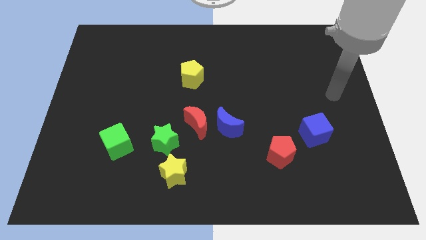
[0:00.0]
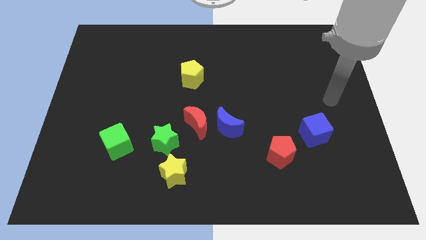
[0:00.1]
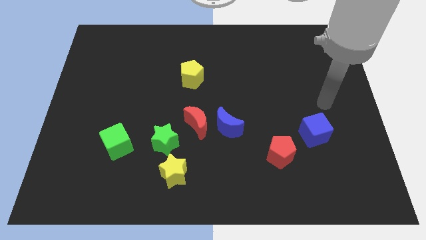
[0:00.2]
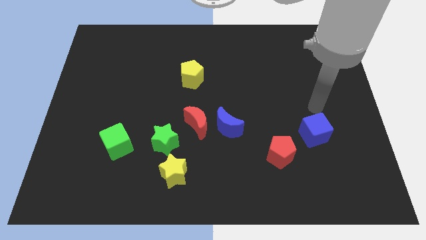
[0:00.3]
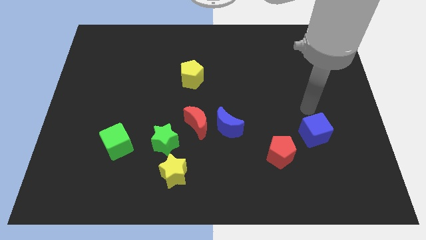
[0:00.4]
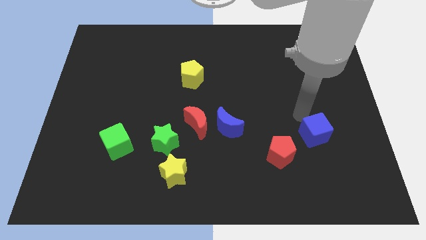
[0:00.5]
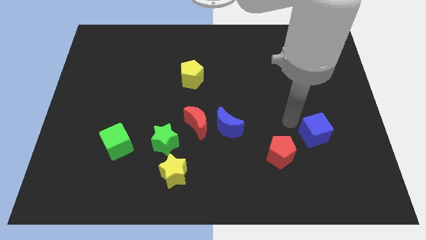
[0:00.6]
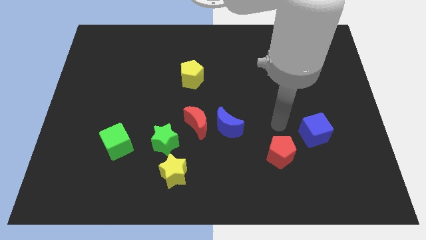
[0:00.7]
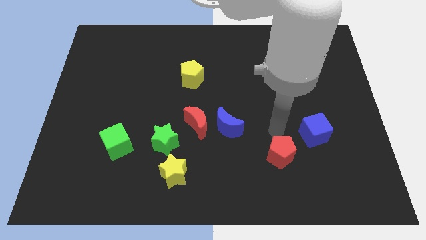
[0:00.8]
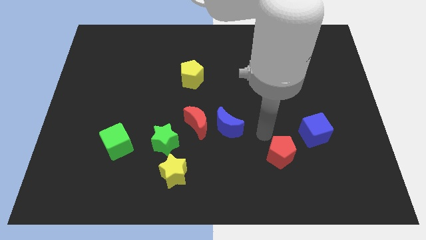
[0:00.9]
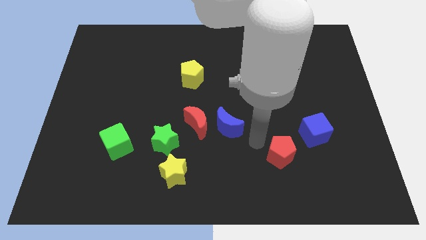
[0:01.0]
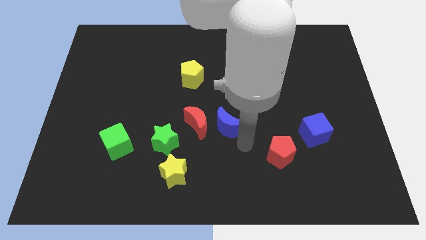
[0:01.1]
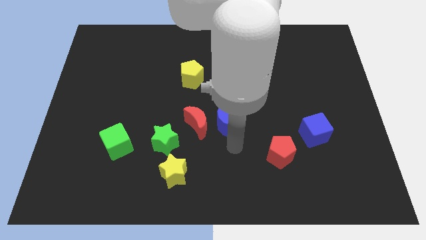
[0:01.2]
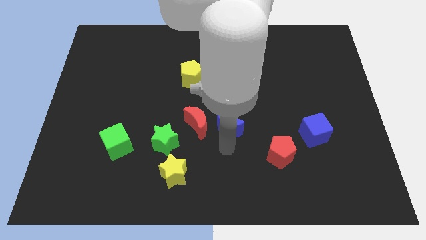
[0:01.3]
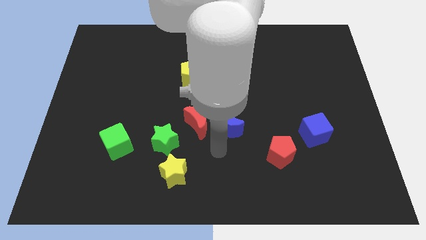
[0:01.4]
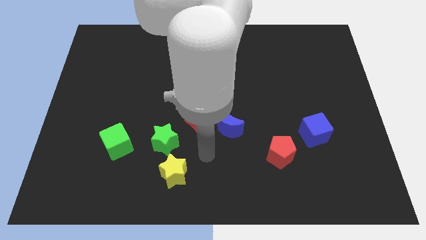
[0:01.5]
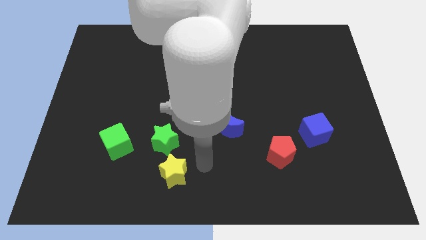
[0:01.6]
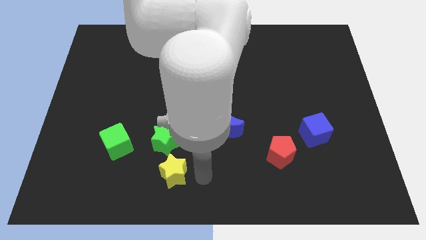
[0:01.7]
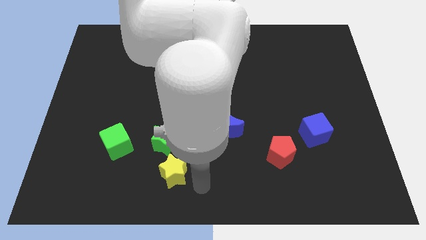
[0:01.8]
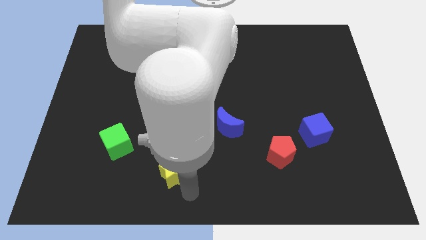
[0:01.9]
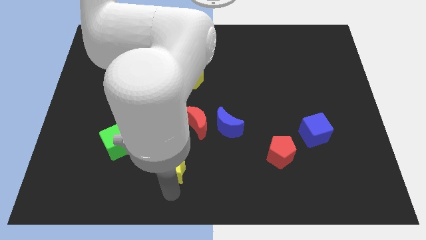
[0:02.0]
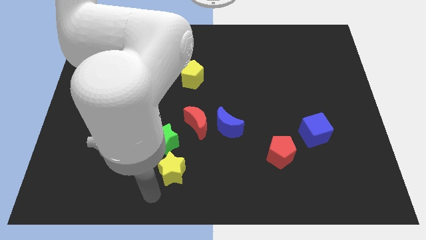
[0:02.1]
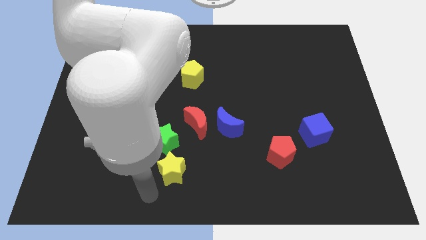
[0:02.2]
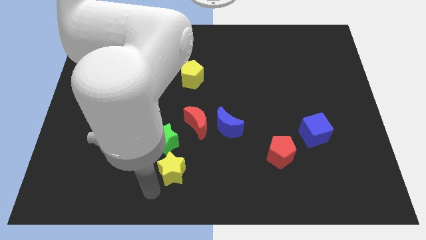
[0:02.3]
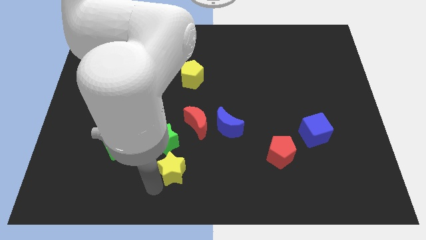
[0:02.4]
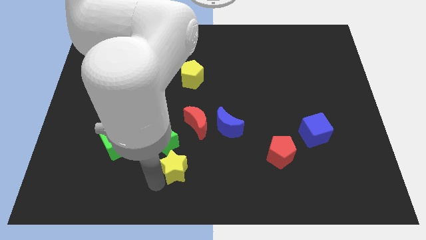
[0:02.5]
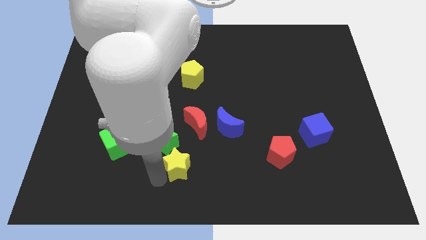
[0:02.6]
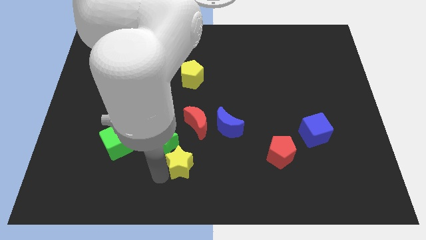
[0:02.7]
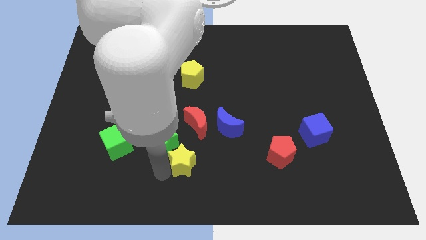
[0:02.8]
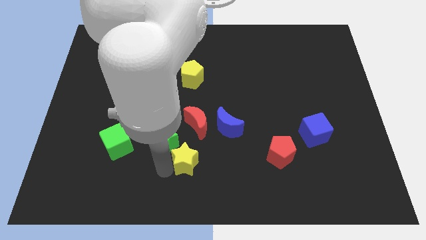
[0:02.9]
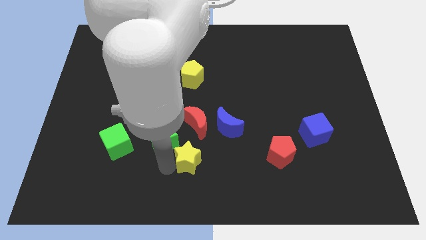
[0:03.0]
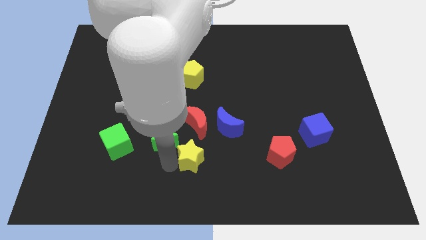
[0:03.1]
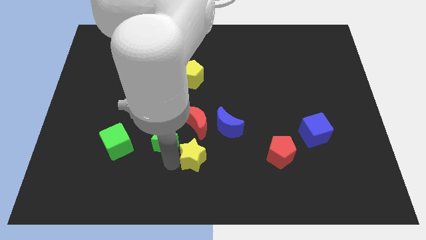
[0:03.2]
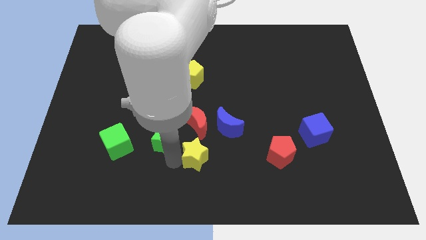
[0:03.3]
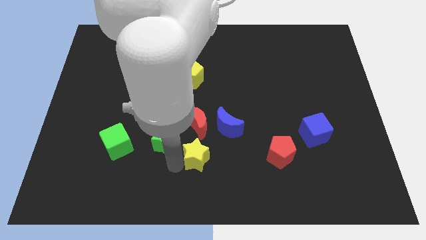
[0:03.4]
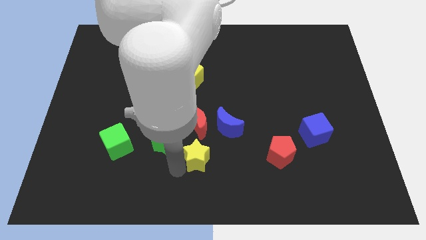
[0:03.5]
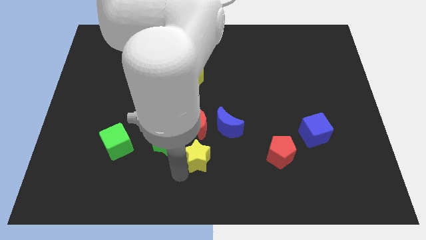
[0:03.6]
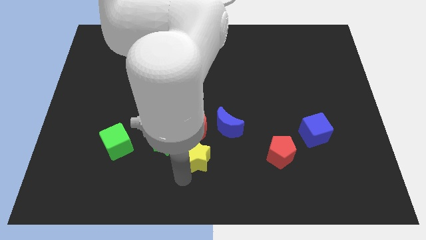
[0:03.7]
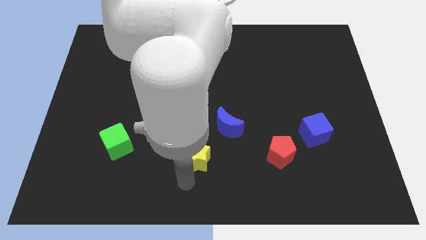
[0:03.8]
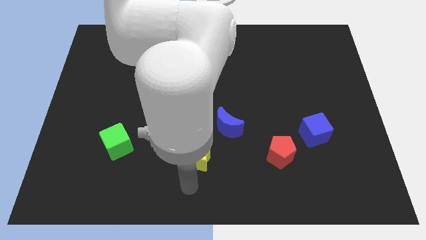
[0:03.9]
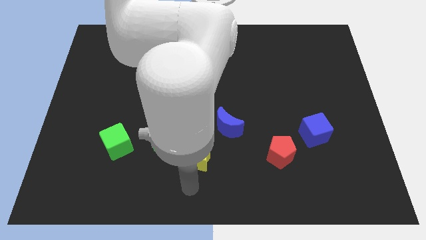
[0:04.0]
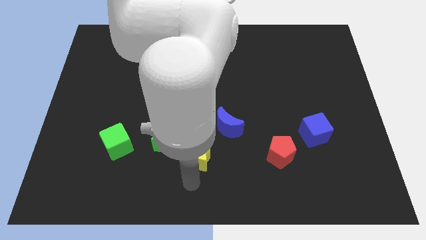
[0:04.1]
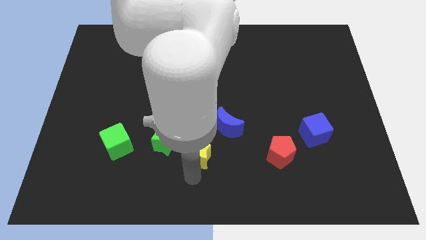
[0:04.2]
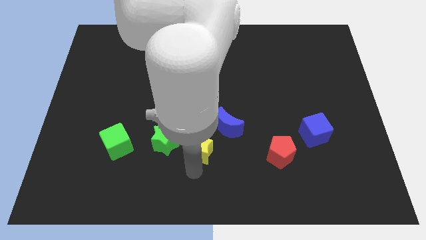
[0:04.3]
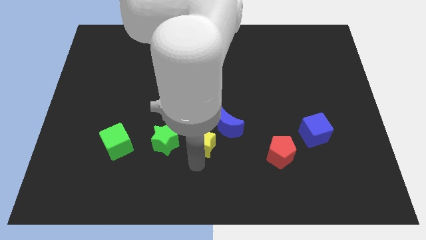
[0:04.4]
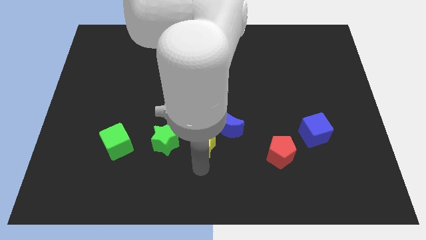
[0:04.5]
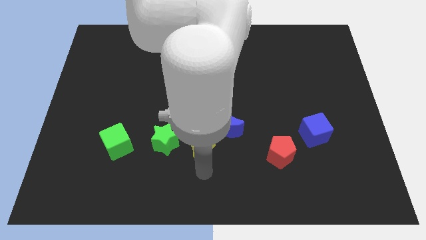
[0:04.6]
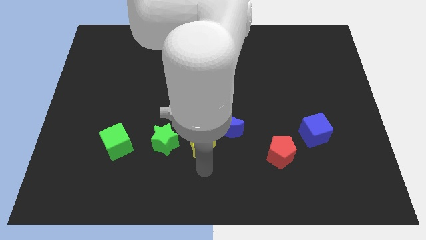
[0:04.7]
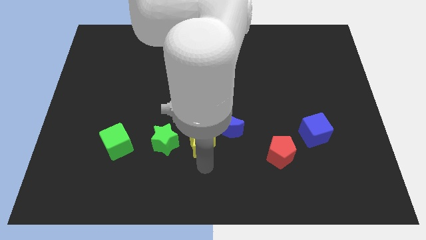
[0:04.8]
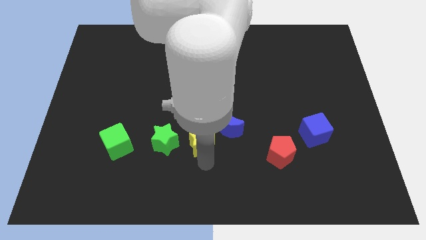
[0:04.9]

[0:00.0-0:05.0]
move the yellow star to the red moon

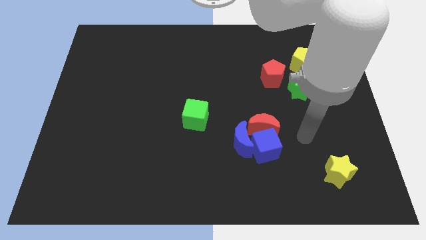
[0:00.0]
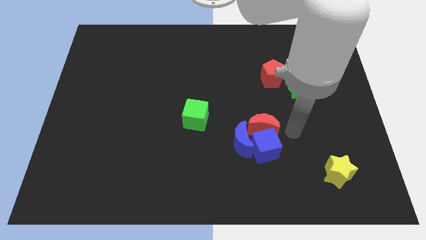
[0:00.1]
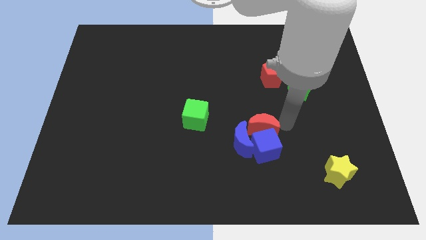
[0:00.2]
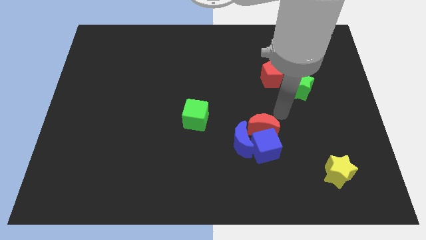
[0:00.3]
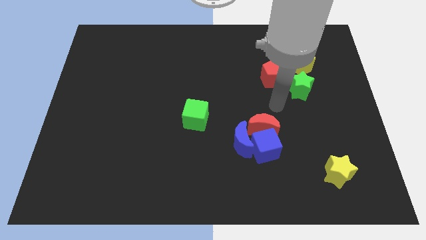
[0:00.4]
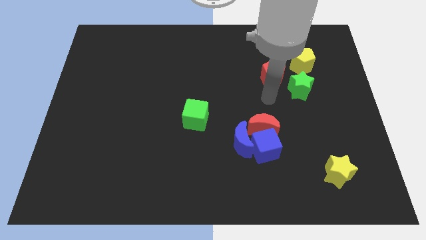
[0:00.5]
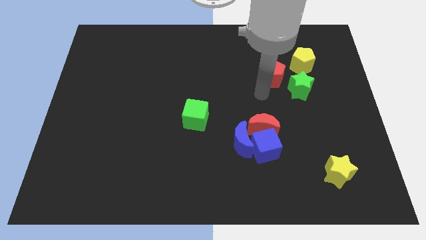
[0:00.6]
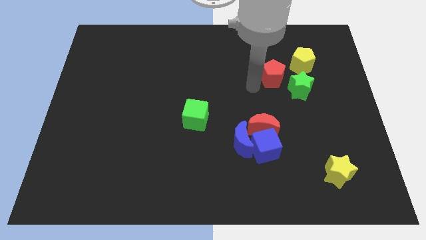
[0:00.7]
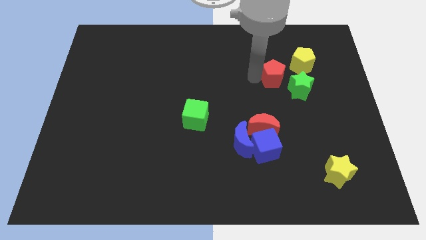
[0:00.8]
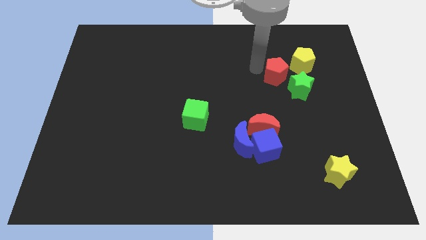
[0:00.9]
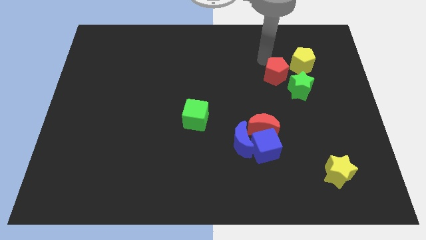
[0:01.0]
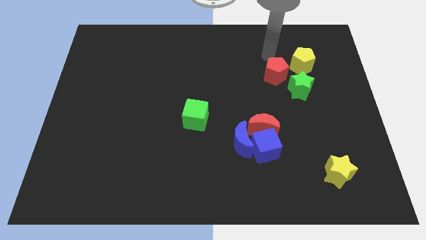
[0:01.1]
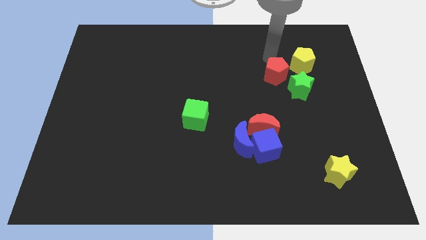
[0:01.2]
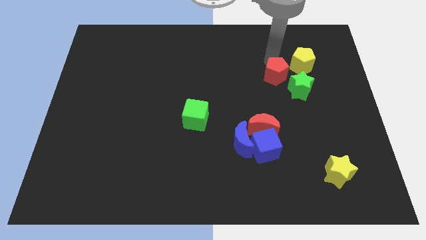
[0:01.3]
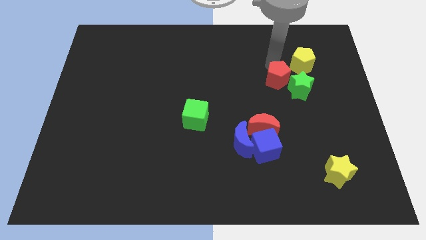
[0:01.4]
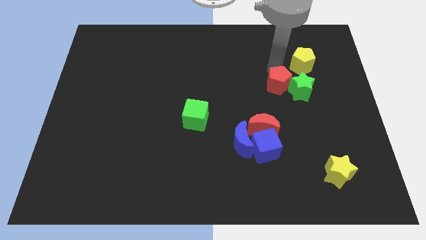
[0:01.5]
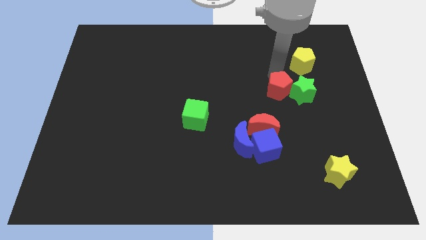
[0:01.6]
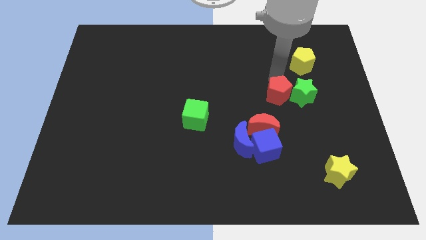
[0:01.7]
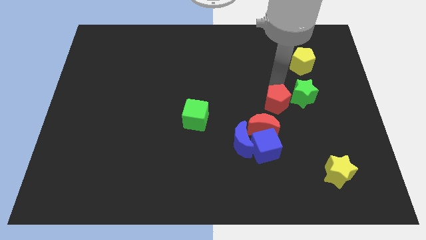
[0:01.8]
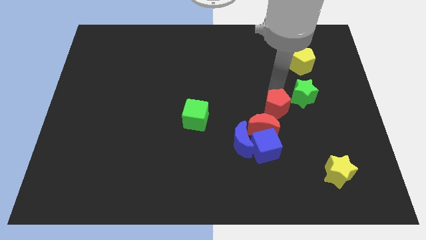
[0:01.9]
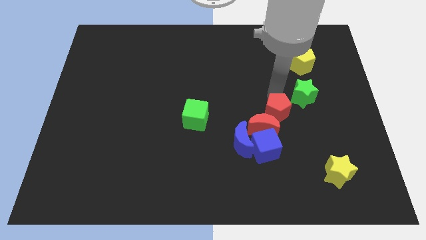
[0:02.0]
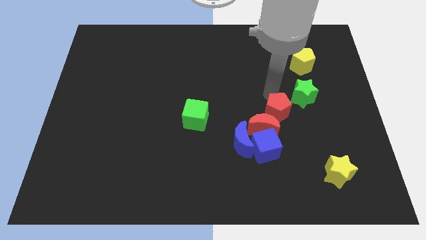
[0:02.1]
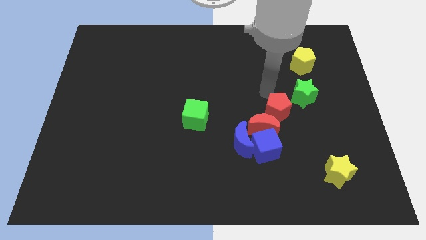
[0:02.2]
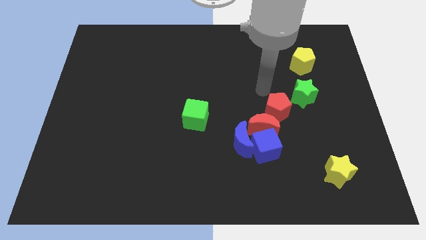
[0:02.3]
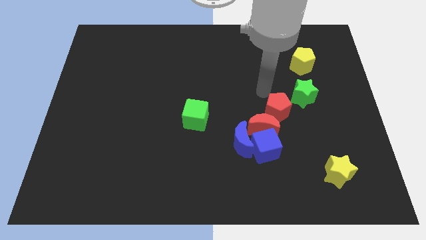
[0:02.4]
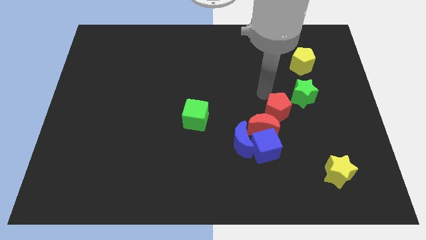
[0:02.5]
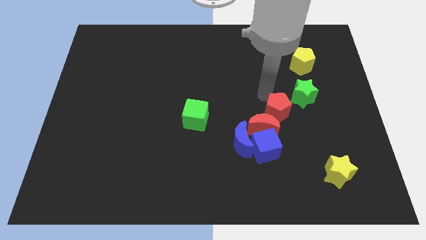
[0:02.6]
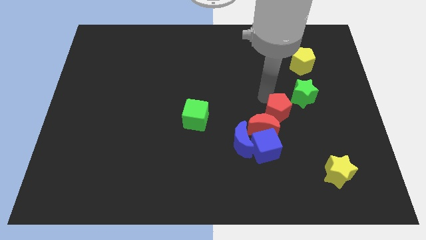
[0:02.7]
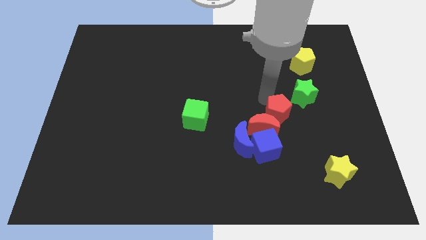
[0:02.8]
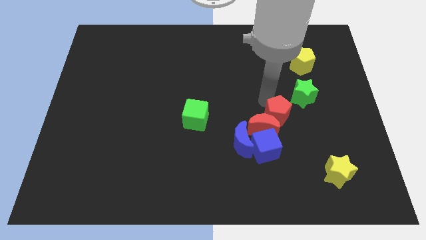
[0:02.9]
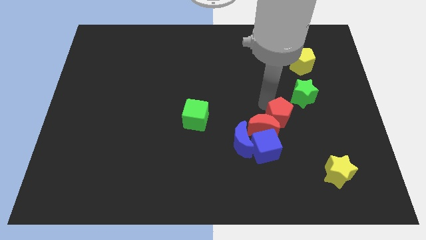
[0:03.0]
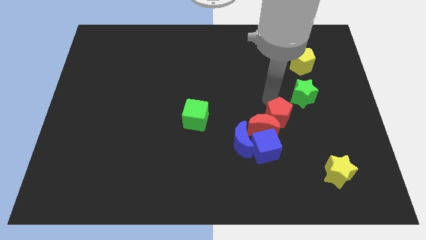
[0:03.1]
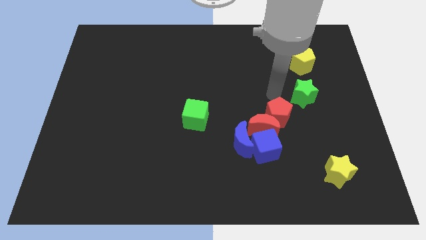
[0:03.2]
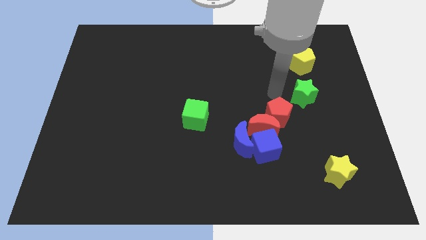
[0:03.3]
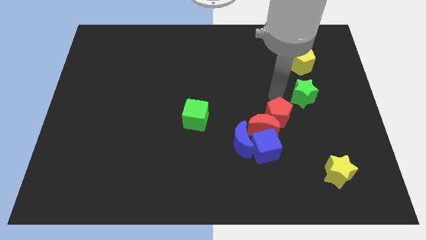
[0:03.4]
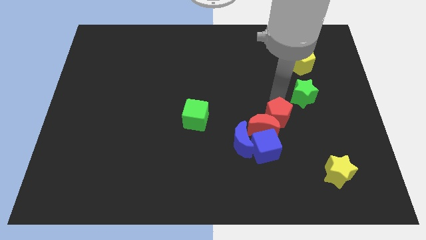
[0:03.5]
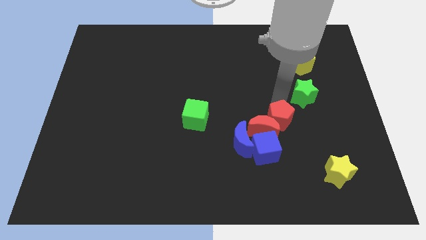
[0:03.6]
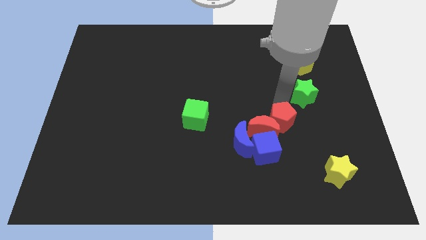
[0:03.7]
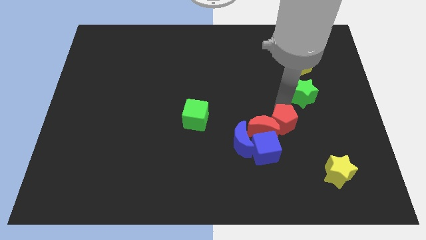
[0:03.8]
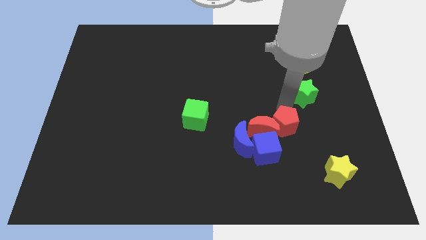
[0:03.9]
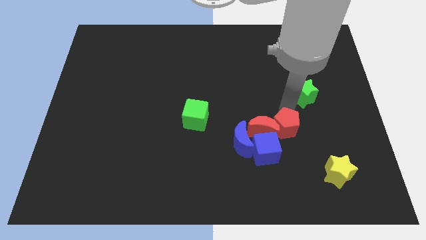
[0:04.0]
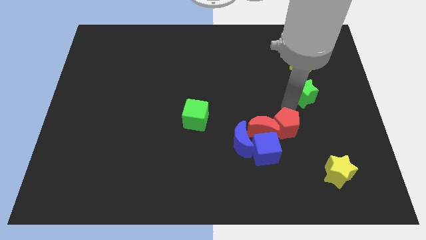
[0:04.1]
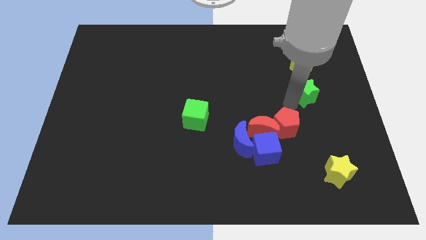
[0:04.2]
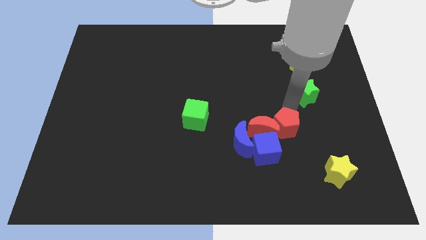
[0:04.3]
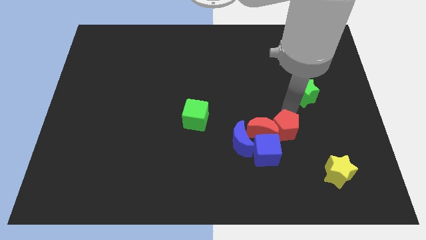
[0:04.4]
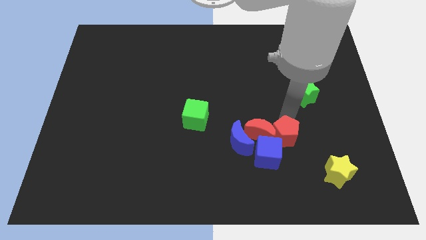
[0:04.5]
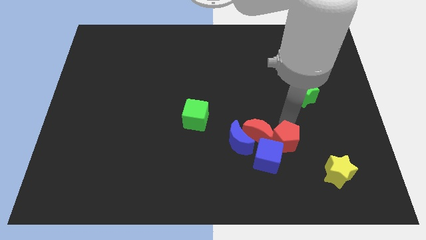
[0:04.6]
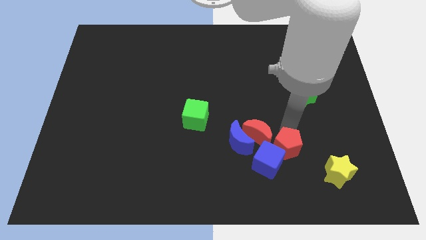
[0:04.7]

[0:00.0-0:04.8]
put the red pentagon close to the blue cube
